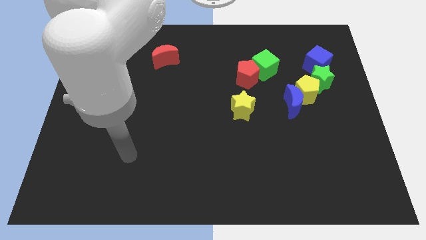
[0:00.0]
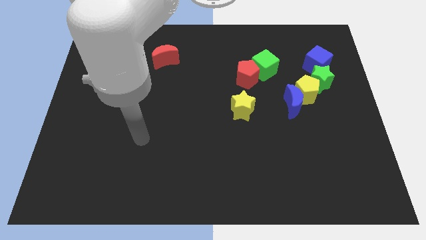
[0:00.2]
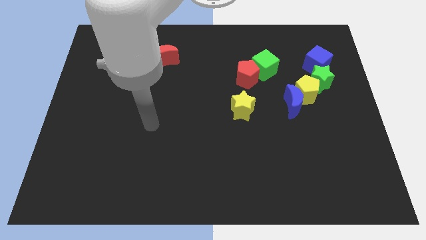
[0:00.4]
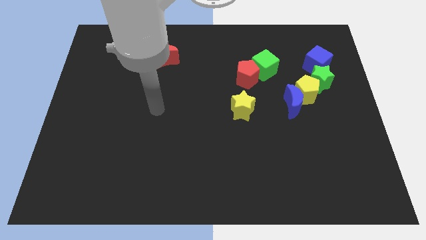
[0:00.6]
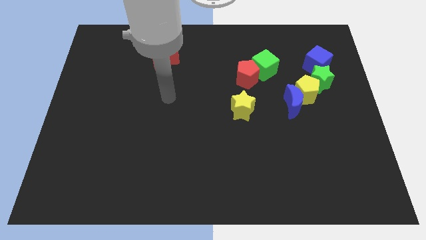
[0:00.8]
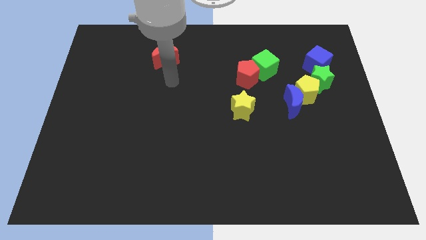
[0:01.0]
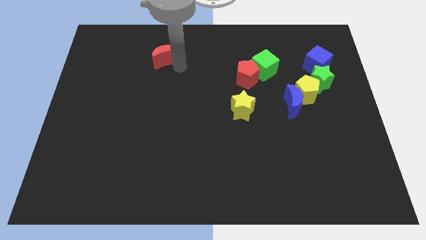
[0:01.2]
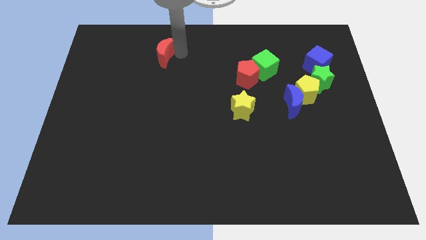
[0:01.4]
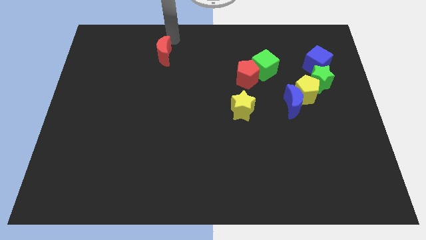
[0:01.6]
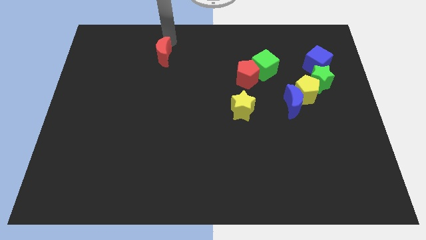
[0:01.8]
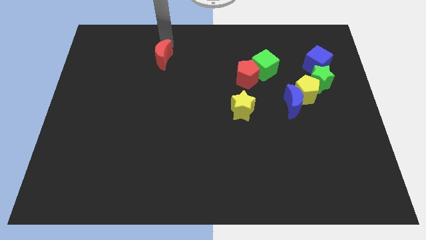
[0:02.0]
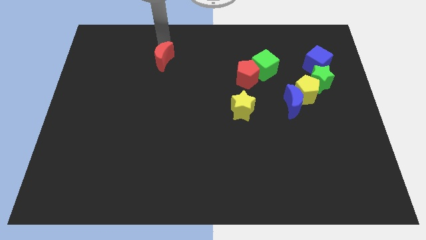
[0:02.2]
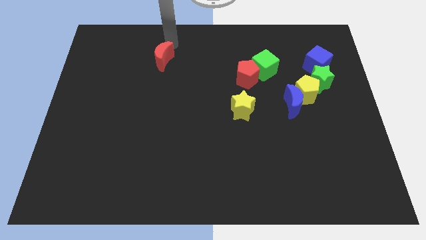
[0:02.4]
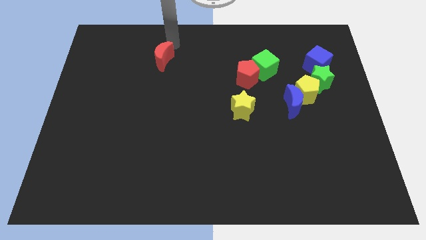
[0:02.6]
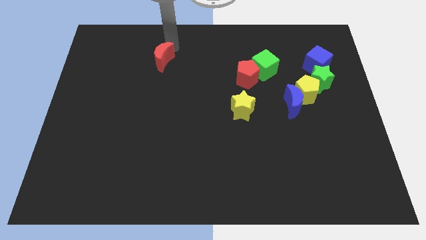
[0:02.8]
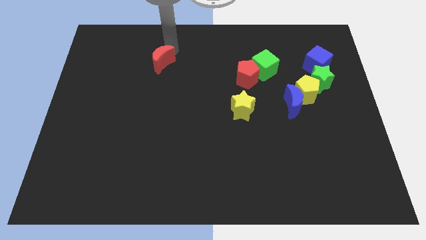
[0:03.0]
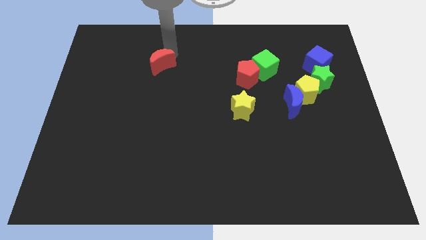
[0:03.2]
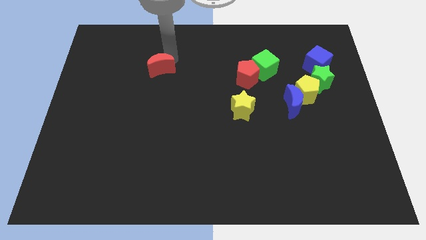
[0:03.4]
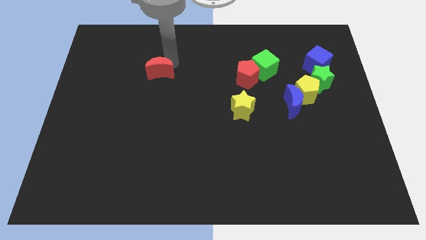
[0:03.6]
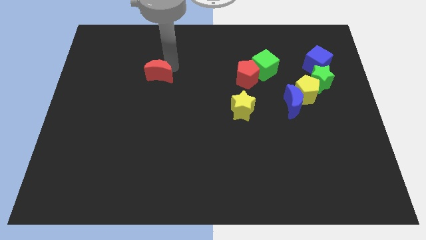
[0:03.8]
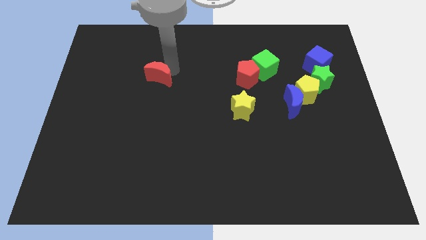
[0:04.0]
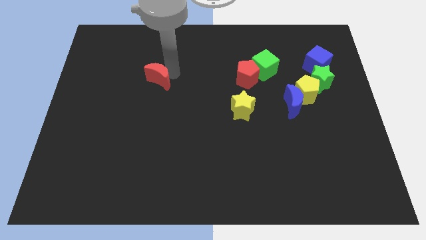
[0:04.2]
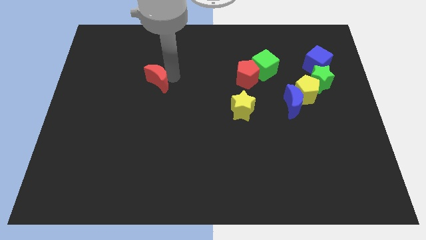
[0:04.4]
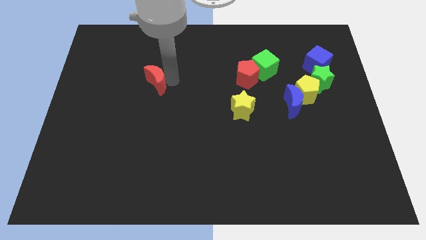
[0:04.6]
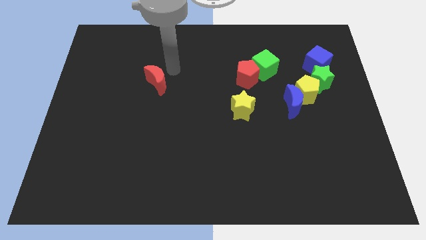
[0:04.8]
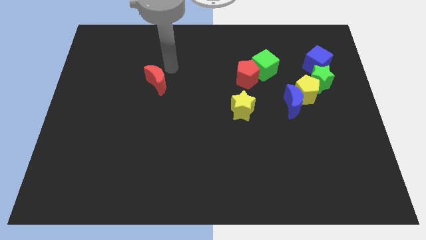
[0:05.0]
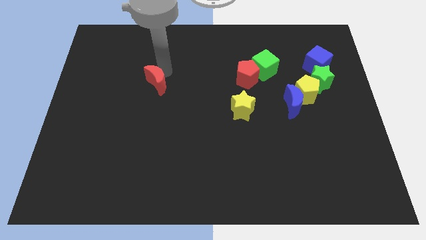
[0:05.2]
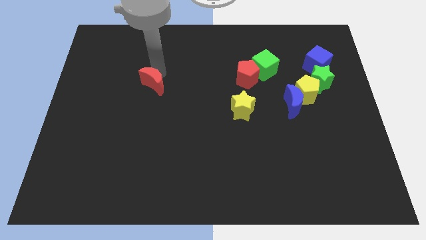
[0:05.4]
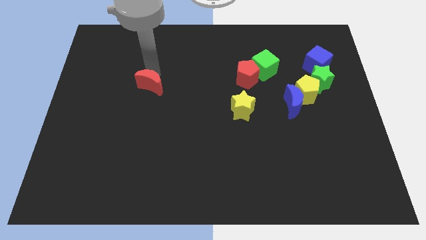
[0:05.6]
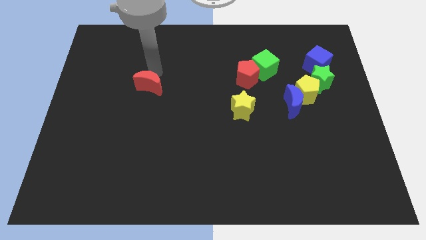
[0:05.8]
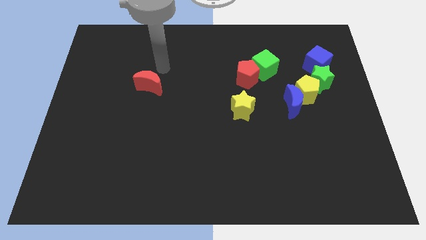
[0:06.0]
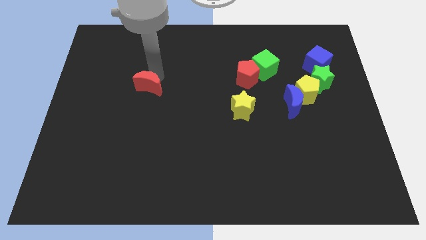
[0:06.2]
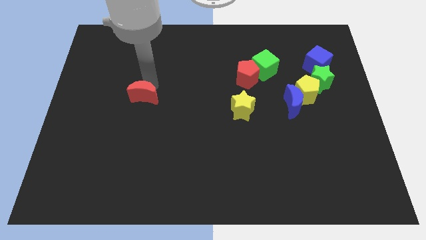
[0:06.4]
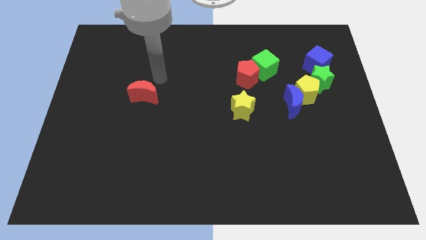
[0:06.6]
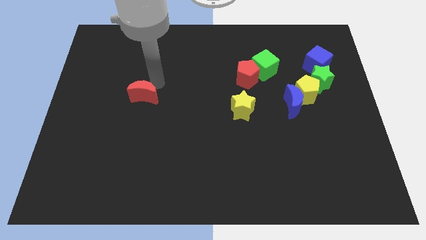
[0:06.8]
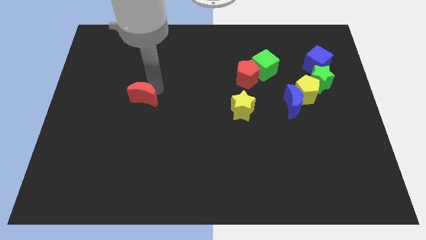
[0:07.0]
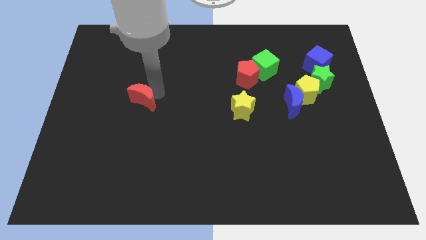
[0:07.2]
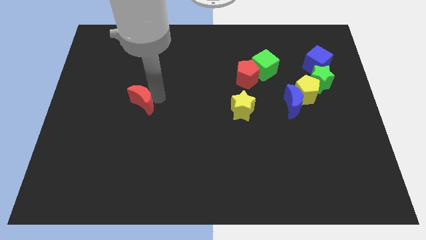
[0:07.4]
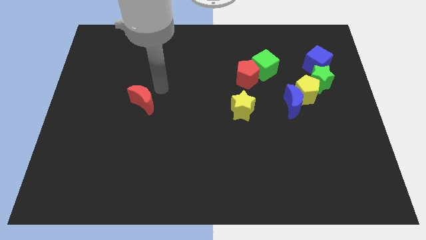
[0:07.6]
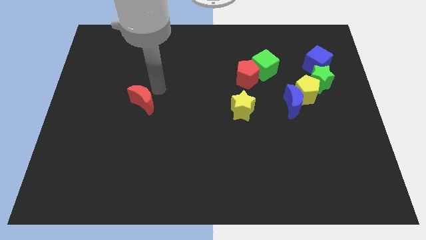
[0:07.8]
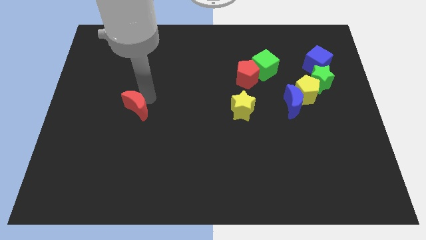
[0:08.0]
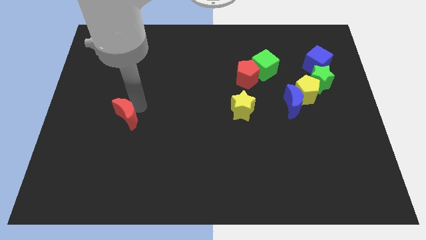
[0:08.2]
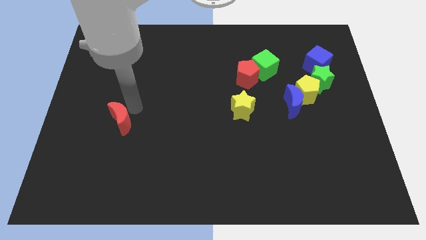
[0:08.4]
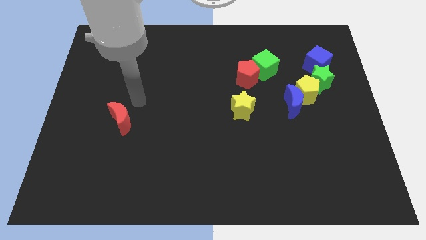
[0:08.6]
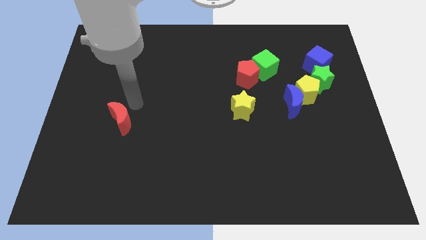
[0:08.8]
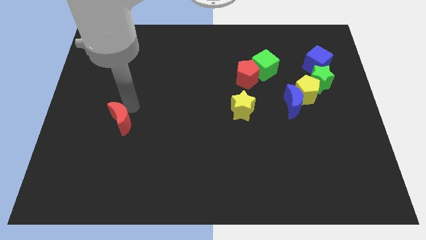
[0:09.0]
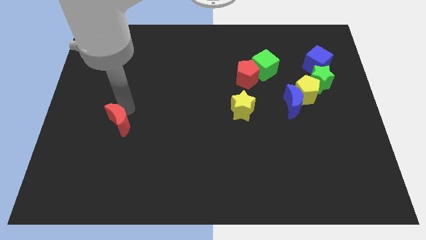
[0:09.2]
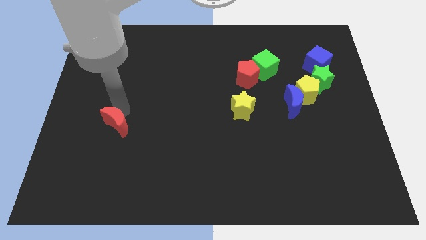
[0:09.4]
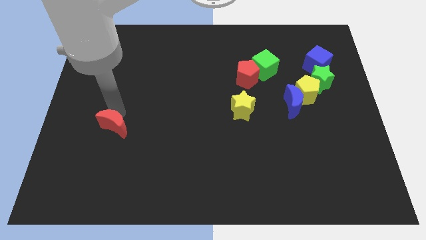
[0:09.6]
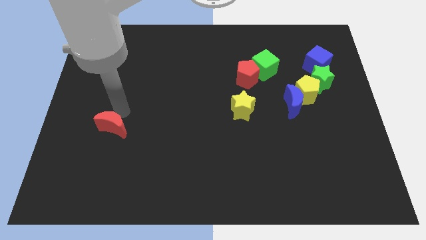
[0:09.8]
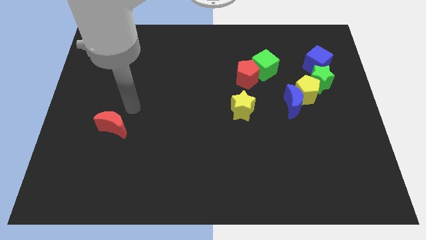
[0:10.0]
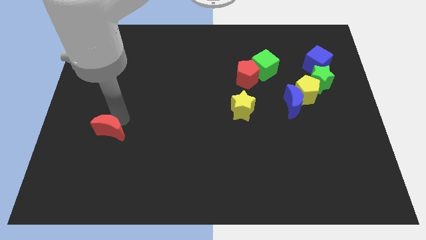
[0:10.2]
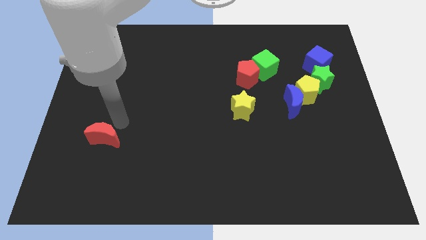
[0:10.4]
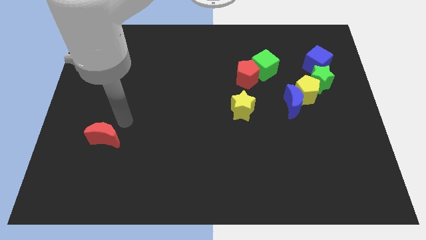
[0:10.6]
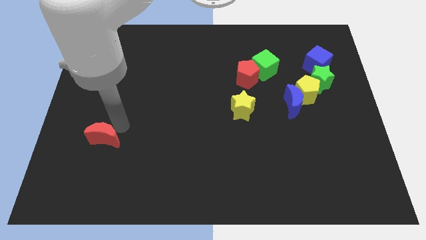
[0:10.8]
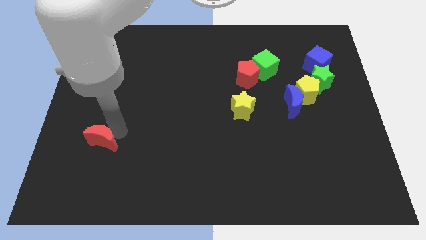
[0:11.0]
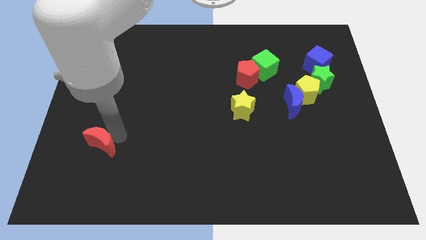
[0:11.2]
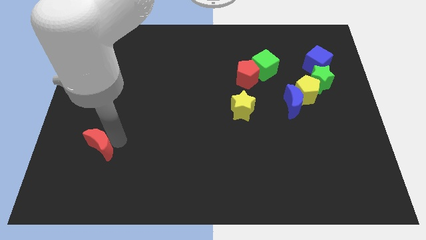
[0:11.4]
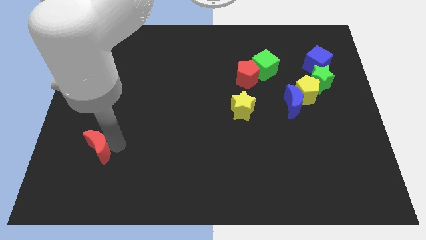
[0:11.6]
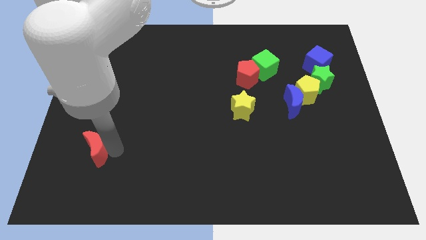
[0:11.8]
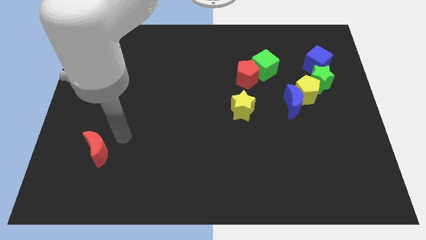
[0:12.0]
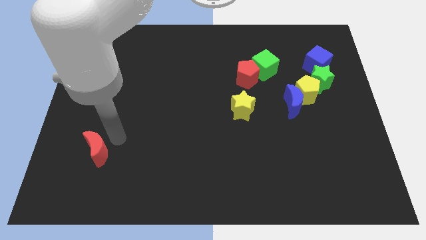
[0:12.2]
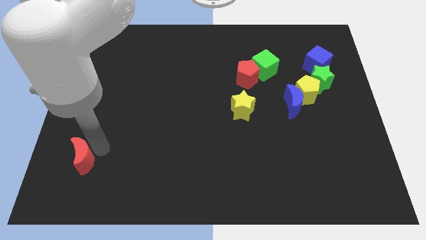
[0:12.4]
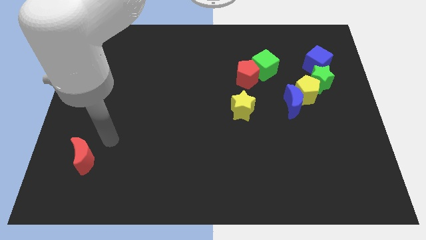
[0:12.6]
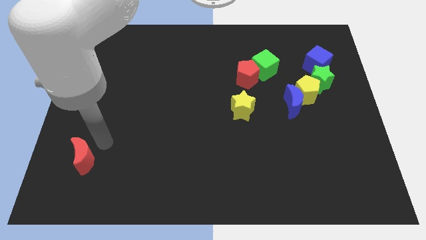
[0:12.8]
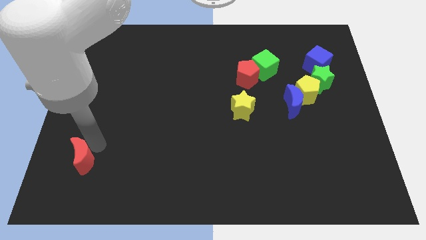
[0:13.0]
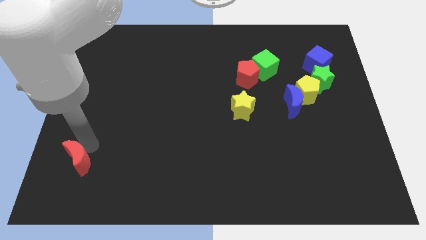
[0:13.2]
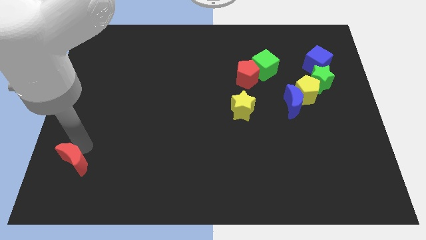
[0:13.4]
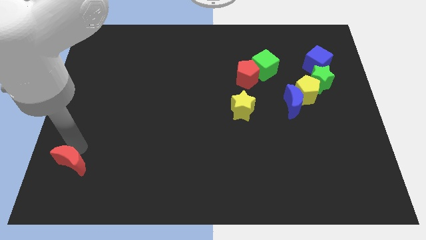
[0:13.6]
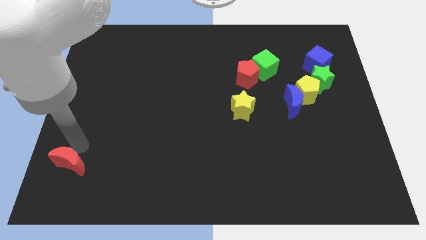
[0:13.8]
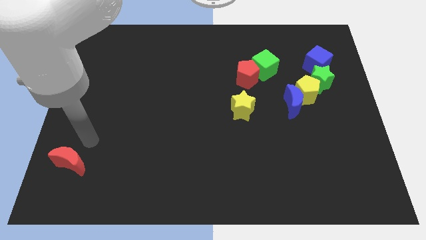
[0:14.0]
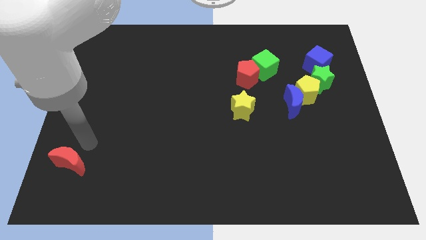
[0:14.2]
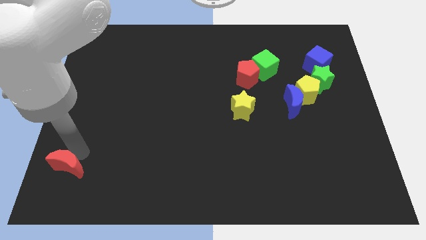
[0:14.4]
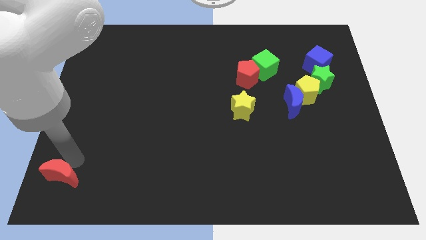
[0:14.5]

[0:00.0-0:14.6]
put the red moon to the bottom left corner
